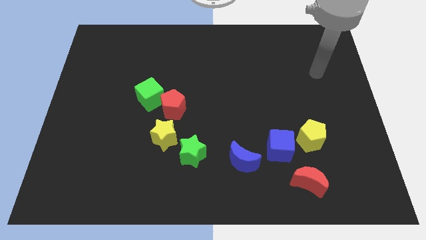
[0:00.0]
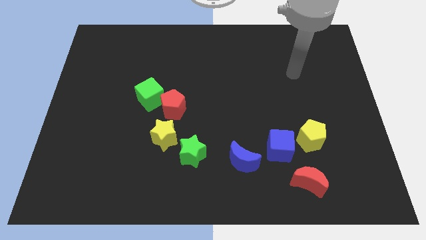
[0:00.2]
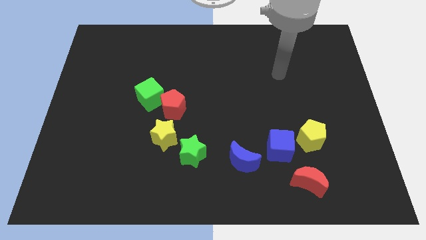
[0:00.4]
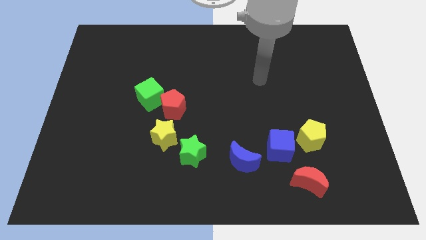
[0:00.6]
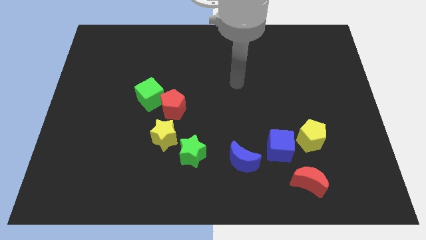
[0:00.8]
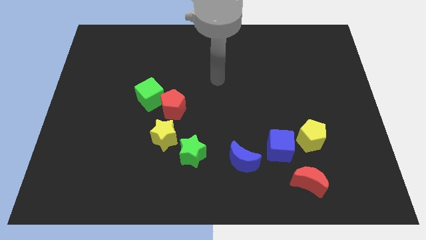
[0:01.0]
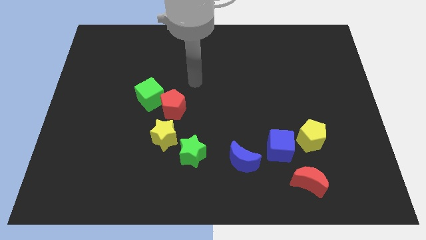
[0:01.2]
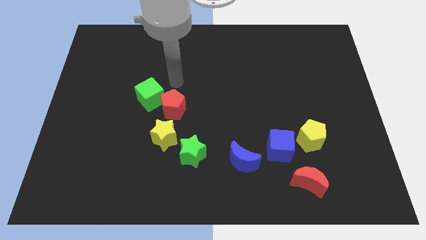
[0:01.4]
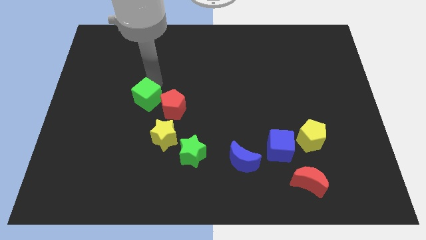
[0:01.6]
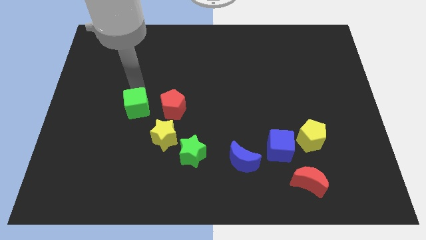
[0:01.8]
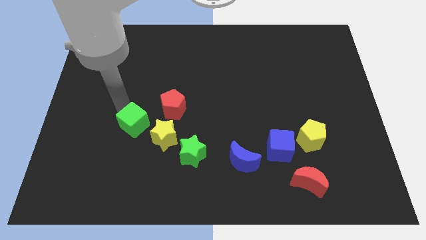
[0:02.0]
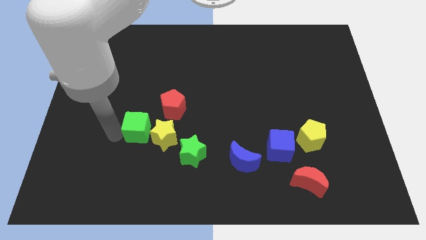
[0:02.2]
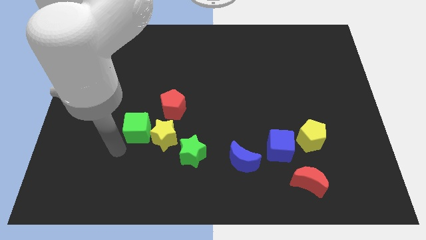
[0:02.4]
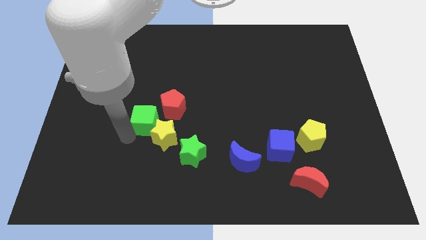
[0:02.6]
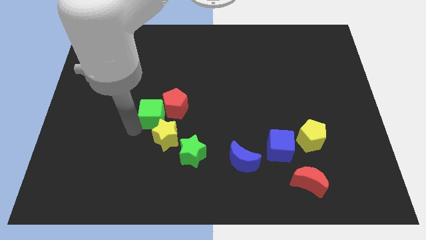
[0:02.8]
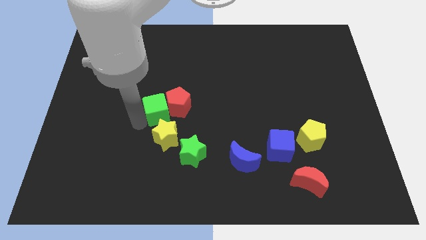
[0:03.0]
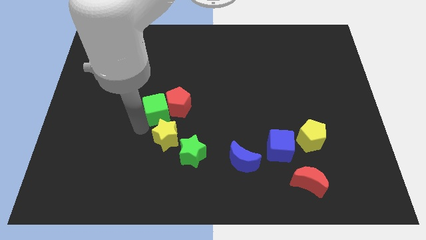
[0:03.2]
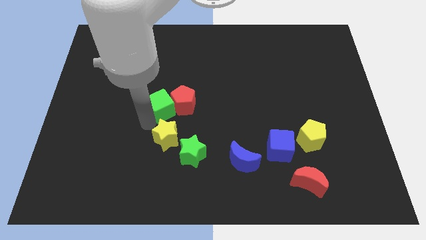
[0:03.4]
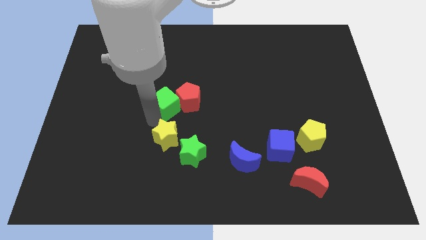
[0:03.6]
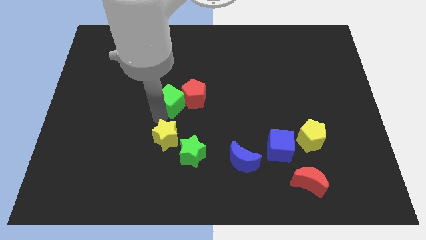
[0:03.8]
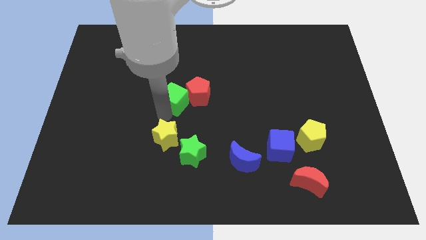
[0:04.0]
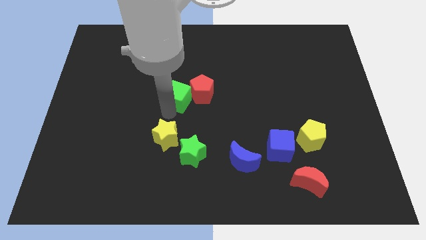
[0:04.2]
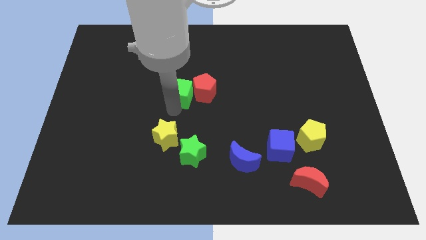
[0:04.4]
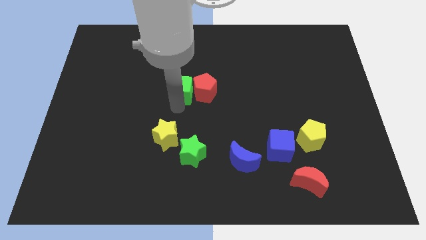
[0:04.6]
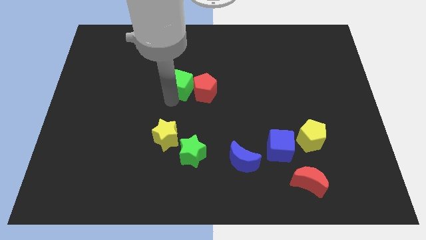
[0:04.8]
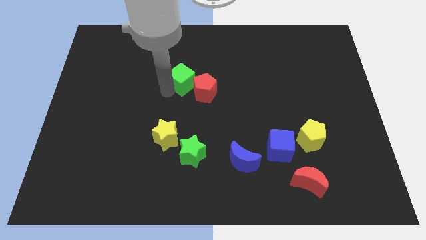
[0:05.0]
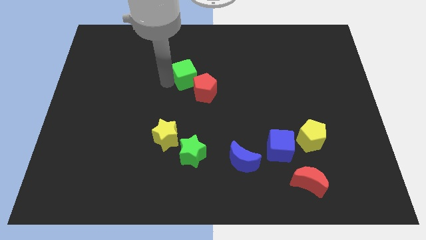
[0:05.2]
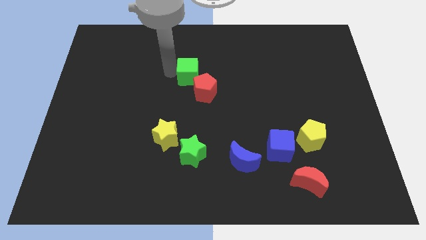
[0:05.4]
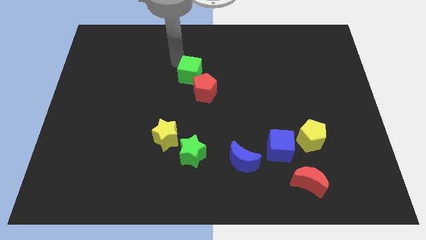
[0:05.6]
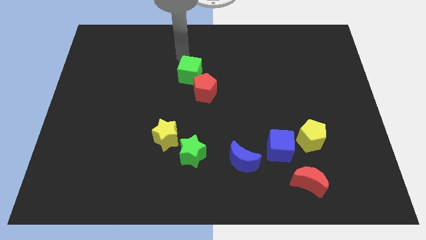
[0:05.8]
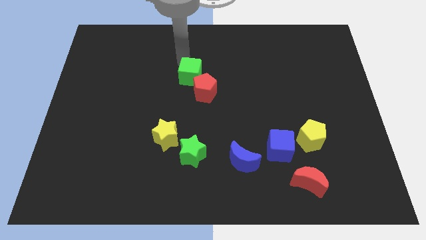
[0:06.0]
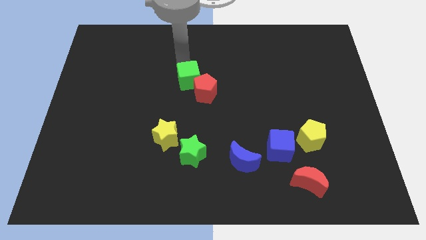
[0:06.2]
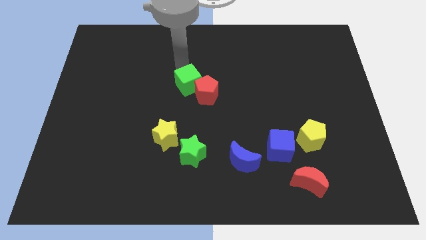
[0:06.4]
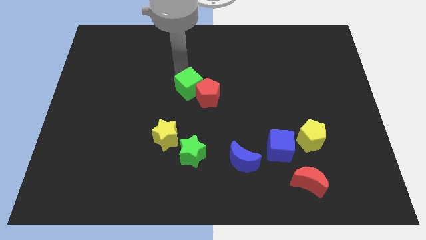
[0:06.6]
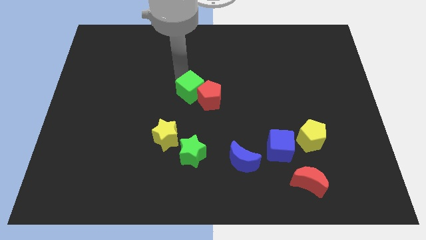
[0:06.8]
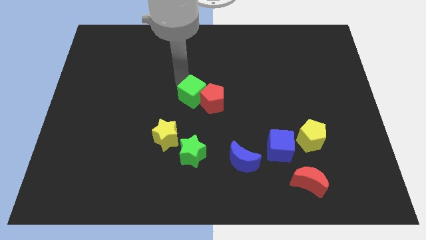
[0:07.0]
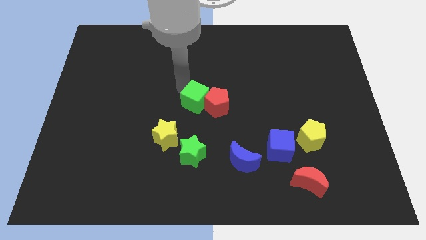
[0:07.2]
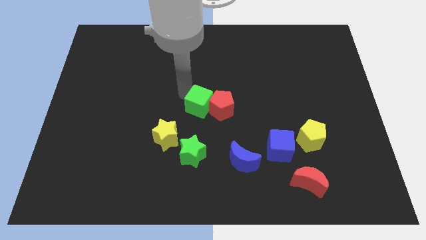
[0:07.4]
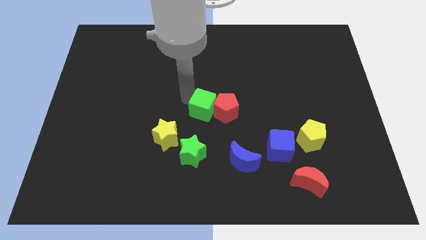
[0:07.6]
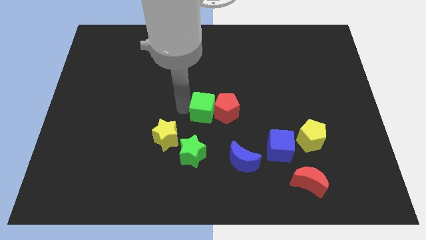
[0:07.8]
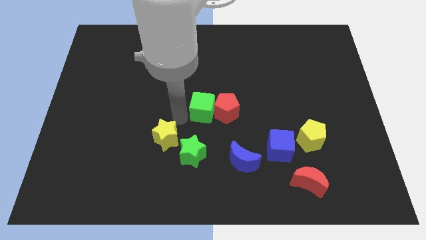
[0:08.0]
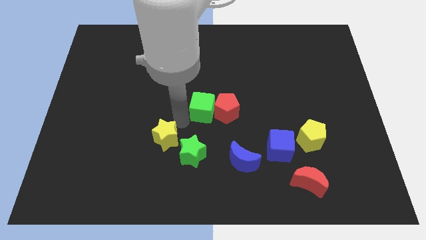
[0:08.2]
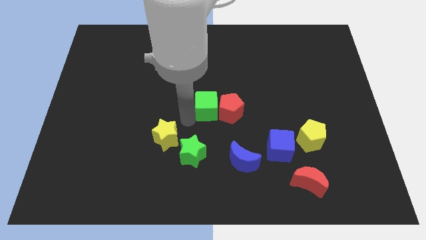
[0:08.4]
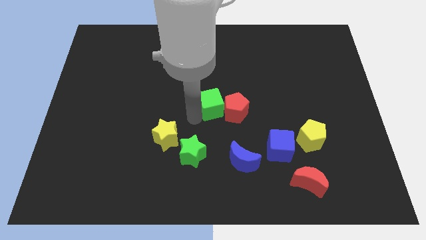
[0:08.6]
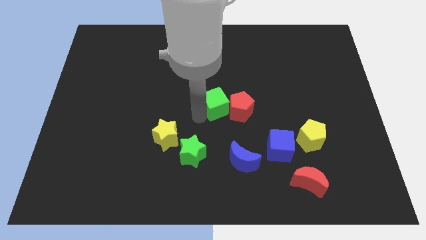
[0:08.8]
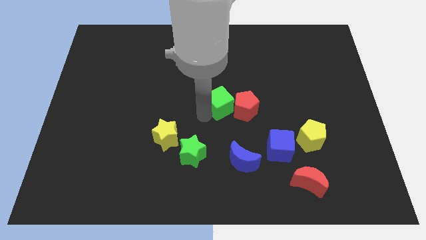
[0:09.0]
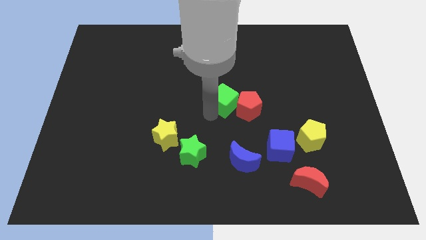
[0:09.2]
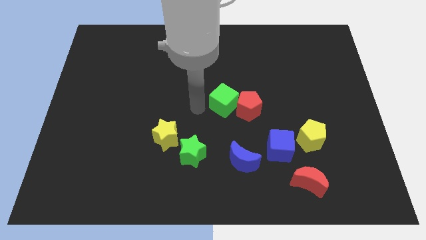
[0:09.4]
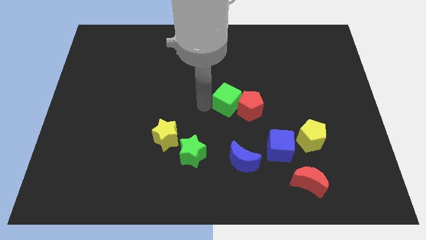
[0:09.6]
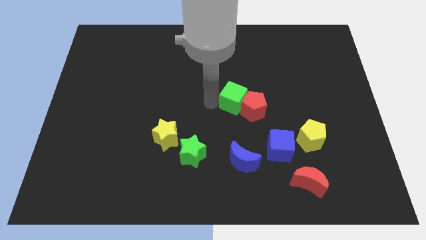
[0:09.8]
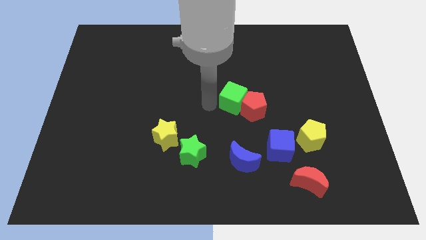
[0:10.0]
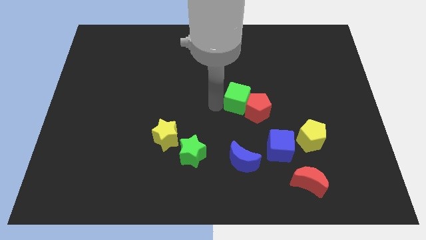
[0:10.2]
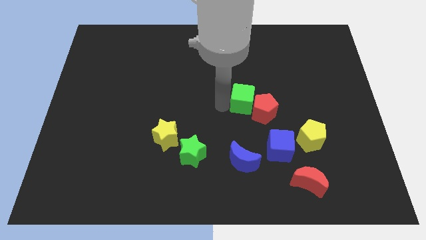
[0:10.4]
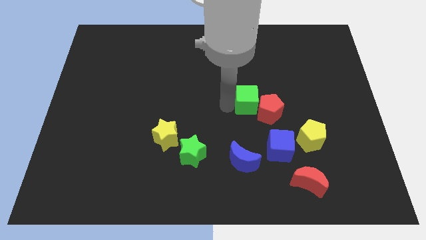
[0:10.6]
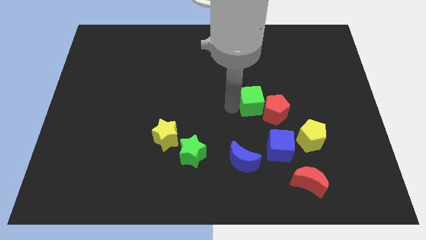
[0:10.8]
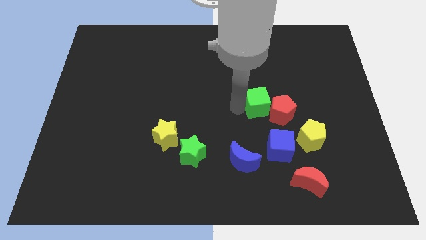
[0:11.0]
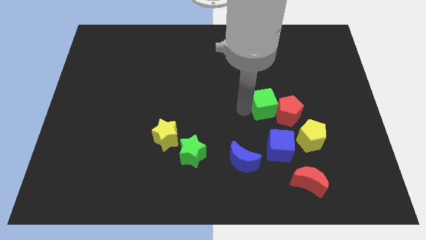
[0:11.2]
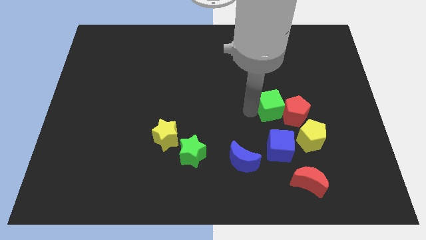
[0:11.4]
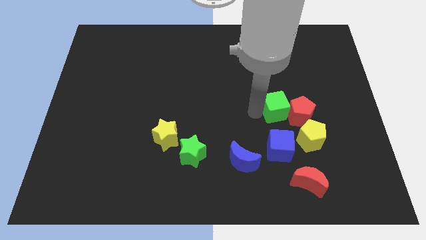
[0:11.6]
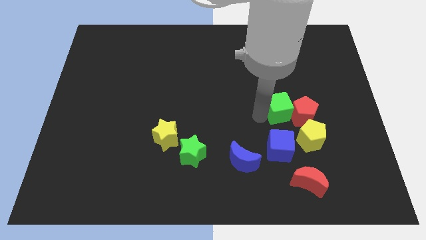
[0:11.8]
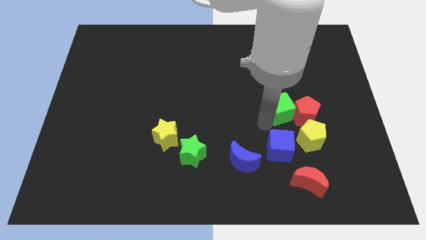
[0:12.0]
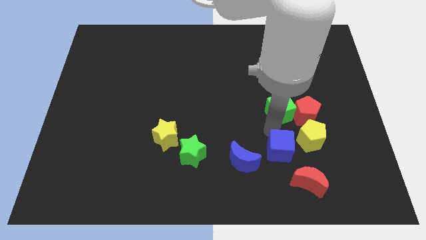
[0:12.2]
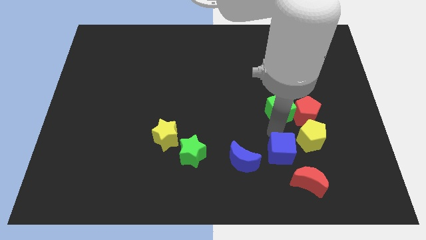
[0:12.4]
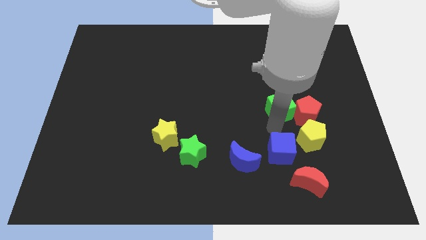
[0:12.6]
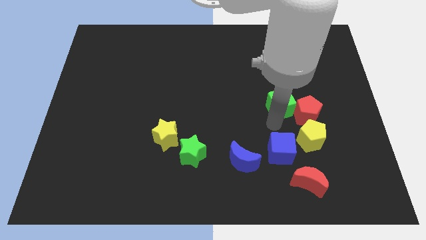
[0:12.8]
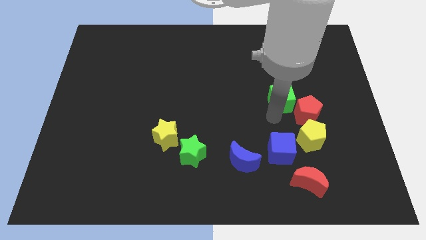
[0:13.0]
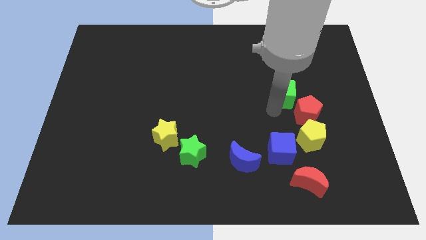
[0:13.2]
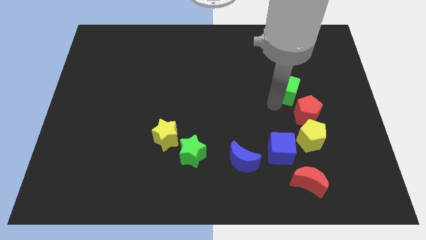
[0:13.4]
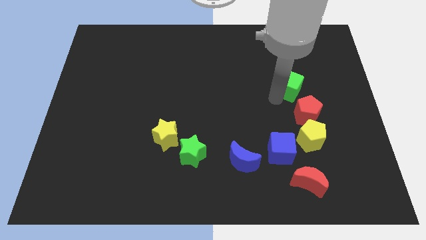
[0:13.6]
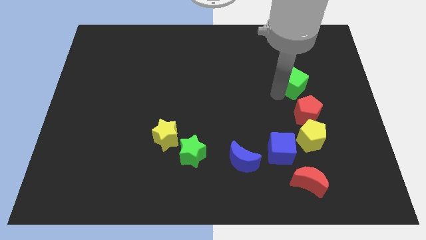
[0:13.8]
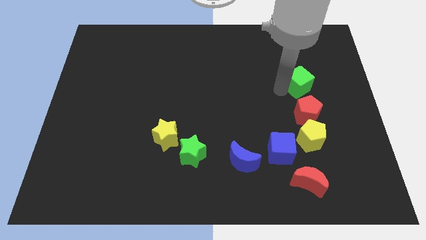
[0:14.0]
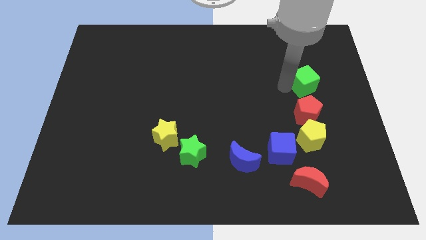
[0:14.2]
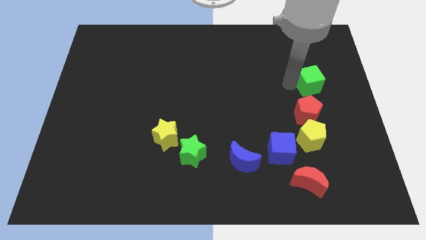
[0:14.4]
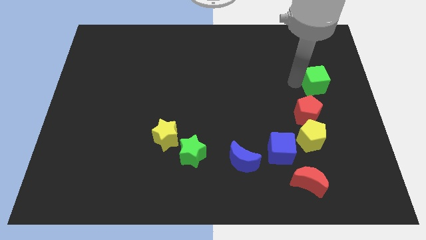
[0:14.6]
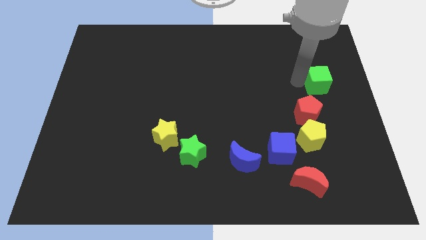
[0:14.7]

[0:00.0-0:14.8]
push the green cube to the right side of the board
